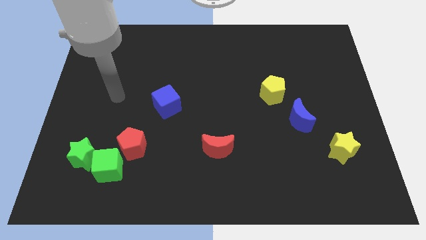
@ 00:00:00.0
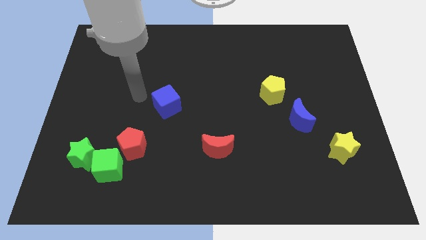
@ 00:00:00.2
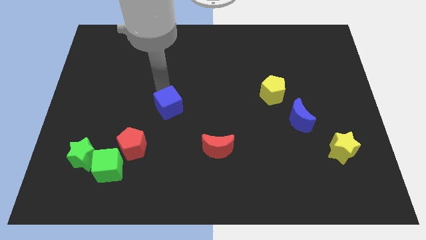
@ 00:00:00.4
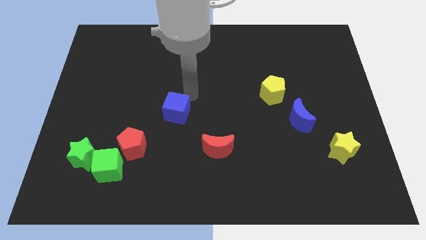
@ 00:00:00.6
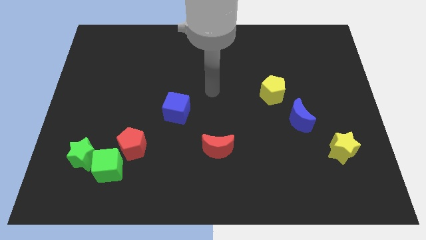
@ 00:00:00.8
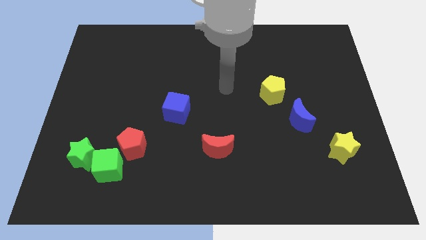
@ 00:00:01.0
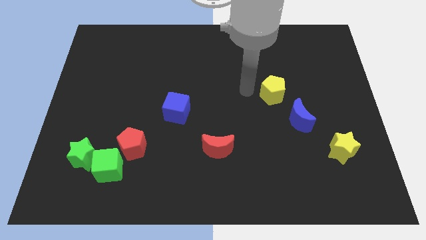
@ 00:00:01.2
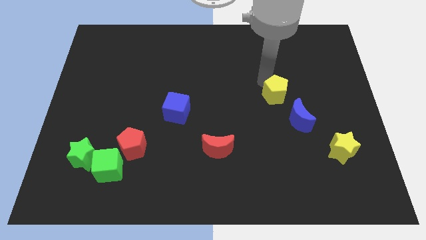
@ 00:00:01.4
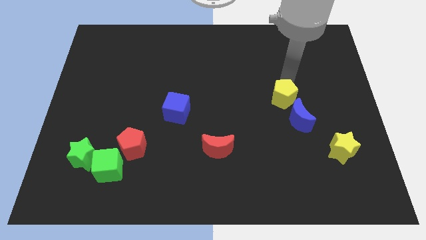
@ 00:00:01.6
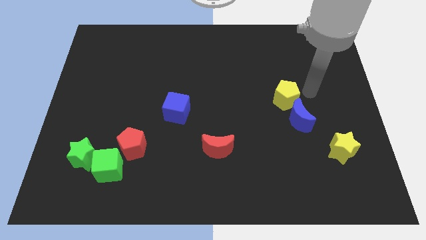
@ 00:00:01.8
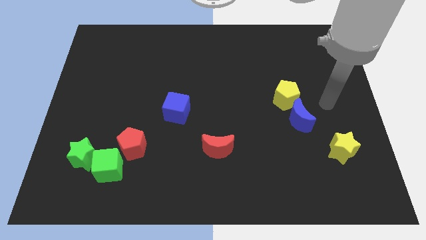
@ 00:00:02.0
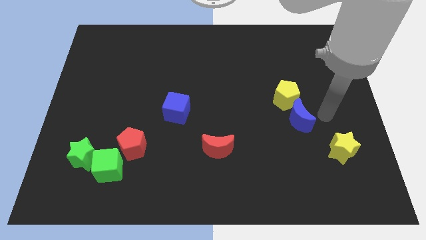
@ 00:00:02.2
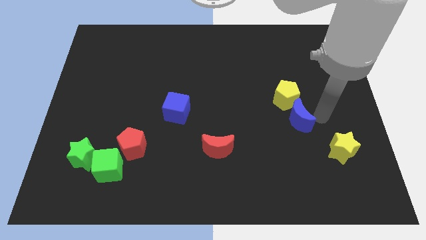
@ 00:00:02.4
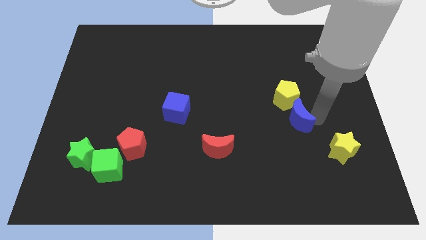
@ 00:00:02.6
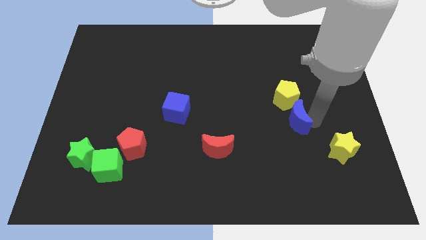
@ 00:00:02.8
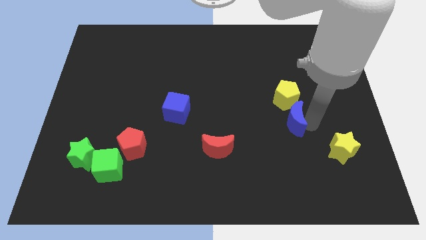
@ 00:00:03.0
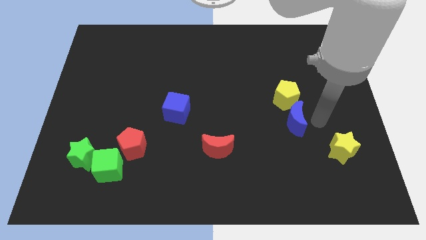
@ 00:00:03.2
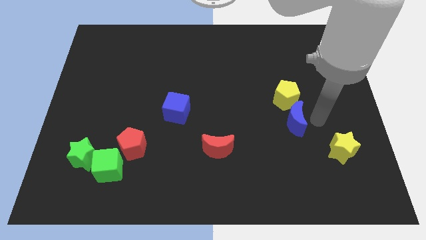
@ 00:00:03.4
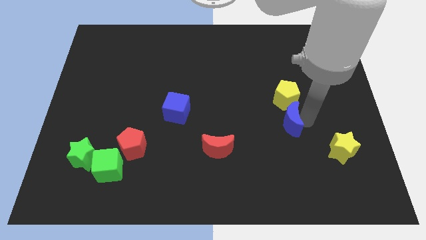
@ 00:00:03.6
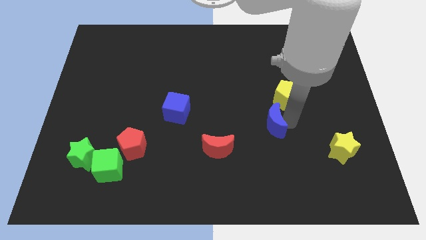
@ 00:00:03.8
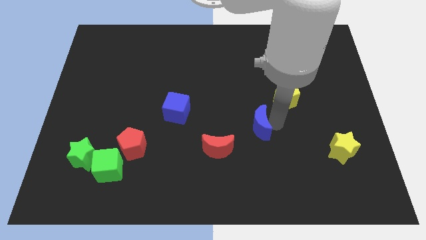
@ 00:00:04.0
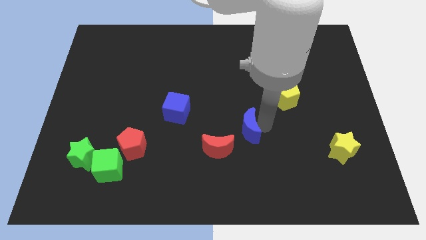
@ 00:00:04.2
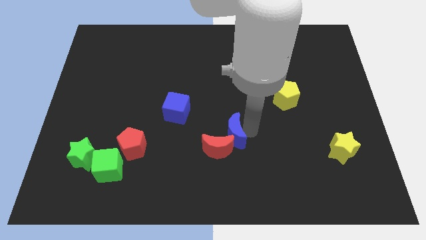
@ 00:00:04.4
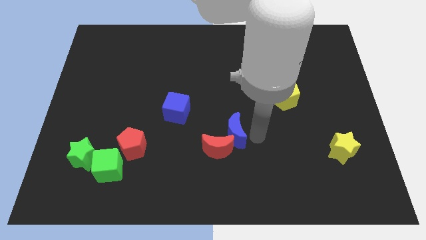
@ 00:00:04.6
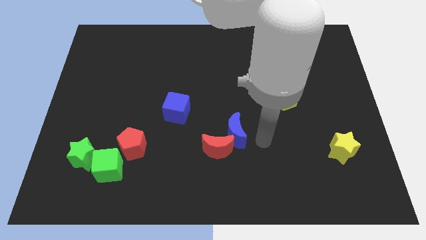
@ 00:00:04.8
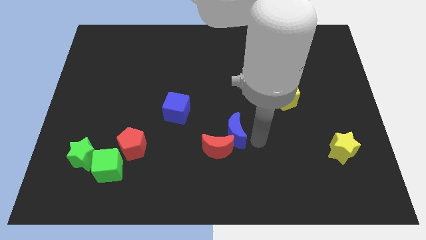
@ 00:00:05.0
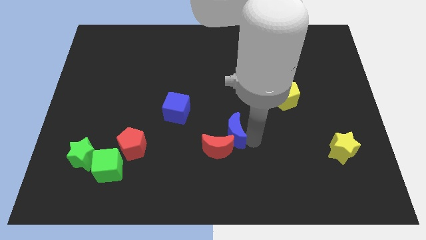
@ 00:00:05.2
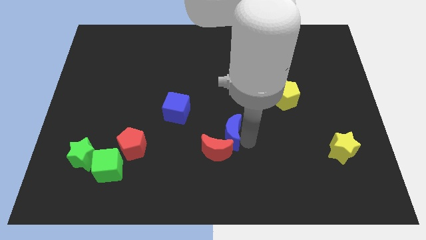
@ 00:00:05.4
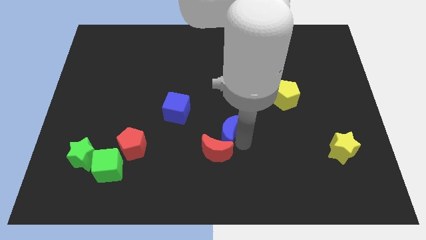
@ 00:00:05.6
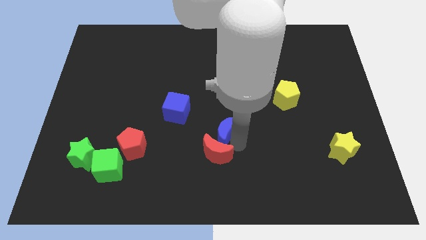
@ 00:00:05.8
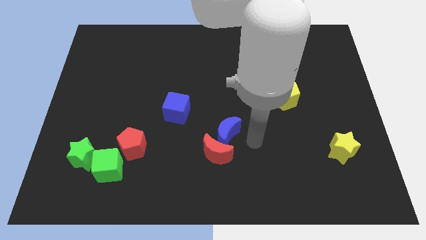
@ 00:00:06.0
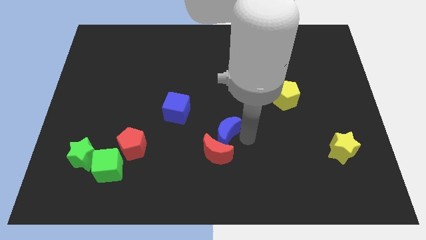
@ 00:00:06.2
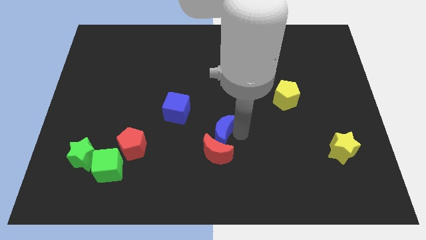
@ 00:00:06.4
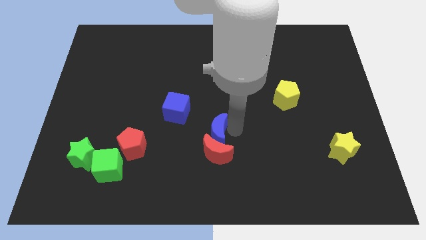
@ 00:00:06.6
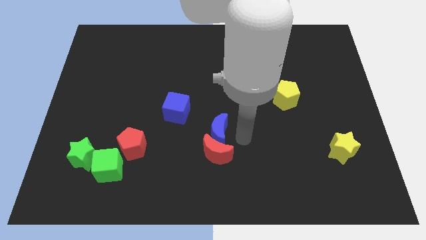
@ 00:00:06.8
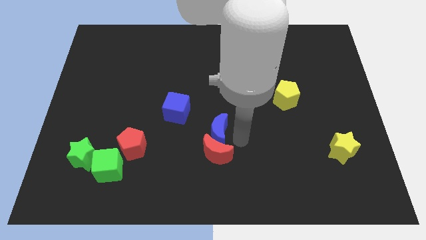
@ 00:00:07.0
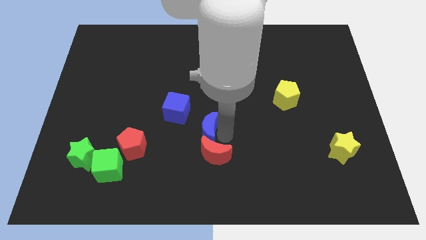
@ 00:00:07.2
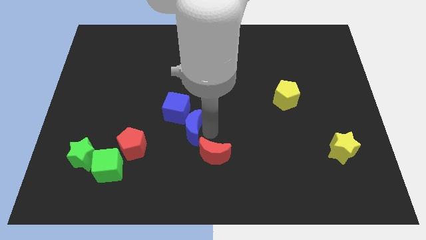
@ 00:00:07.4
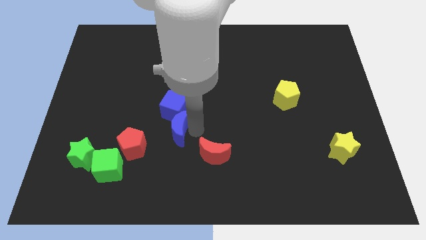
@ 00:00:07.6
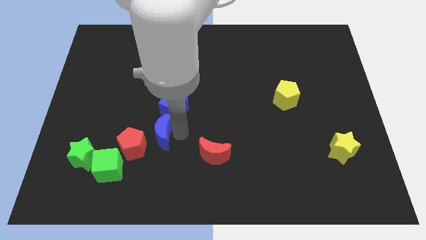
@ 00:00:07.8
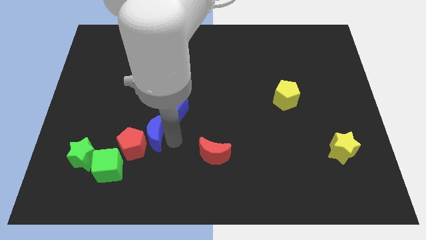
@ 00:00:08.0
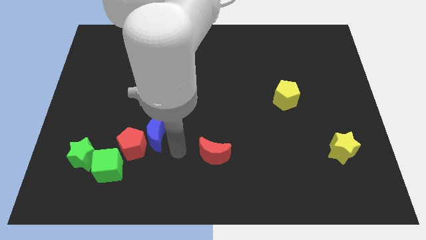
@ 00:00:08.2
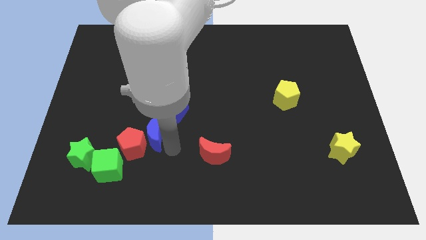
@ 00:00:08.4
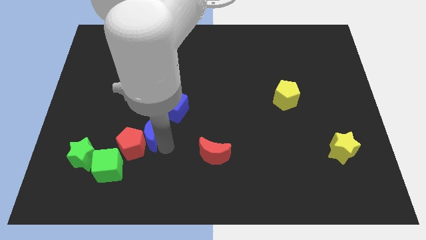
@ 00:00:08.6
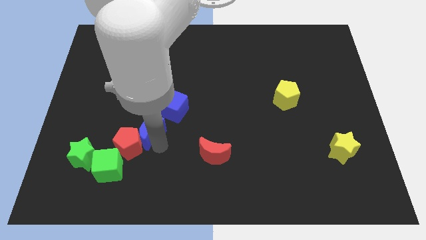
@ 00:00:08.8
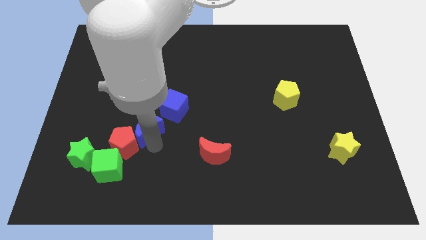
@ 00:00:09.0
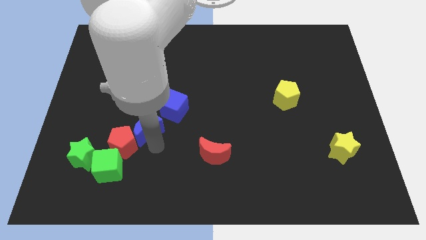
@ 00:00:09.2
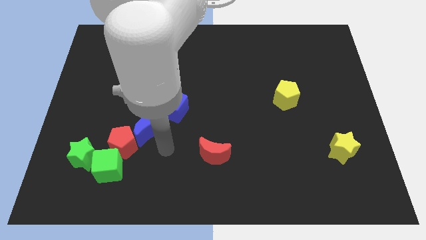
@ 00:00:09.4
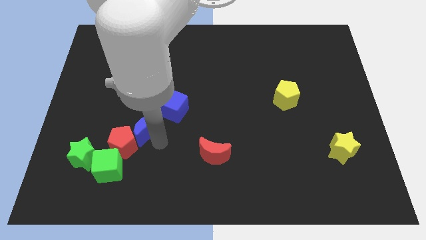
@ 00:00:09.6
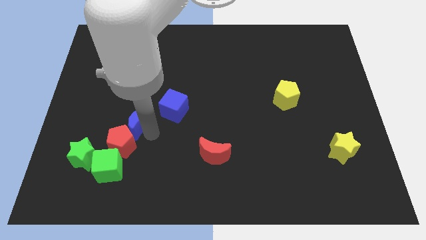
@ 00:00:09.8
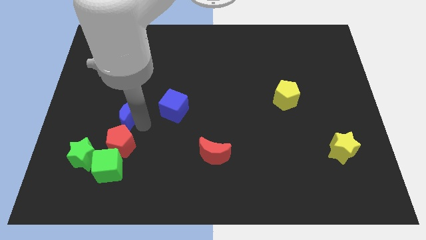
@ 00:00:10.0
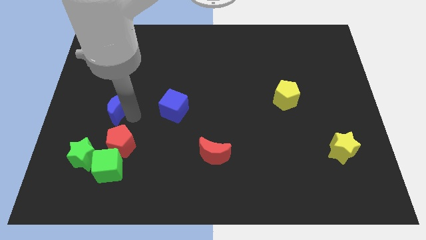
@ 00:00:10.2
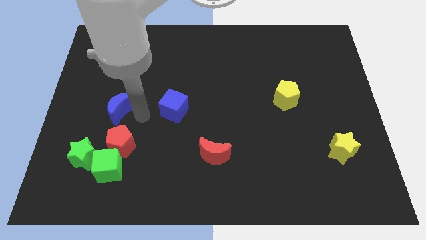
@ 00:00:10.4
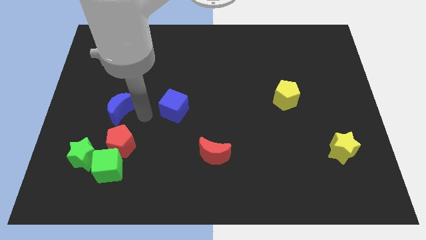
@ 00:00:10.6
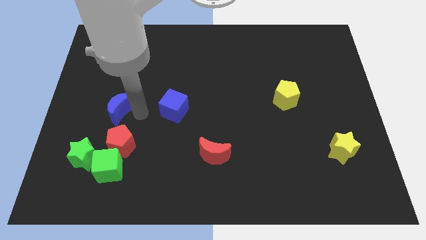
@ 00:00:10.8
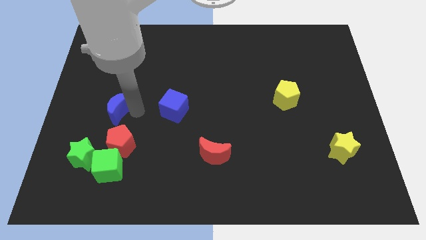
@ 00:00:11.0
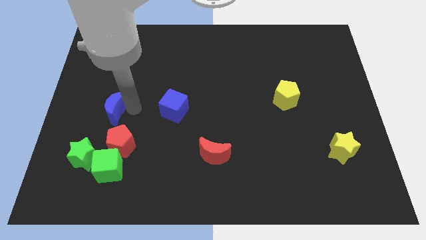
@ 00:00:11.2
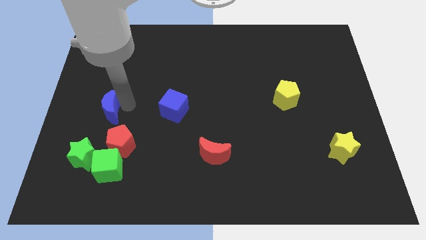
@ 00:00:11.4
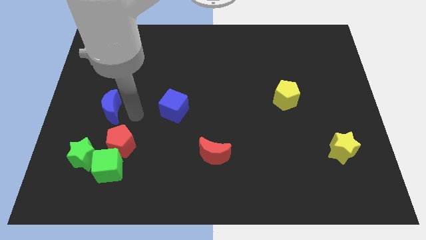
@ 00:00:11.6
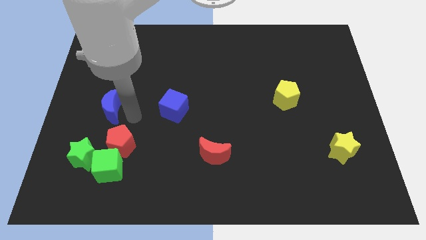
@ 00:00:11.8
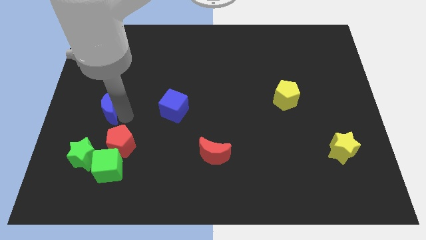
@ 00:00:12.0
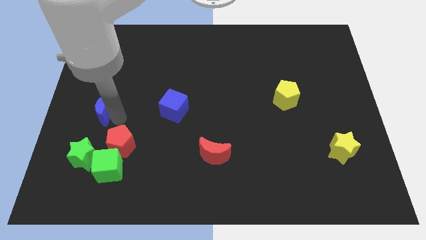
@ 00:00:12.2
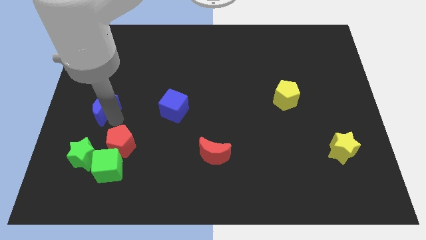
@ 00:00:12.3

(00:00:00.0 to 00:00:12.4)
move the blue moon to the left side
